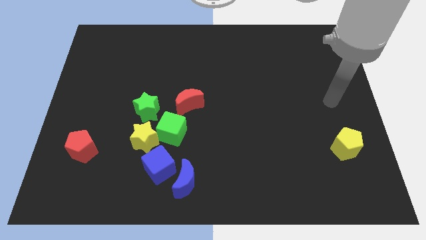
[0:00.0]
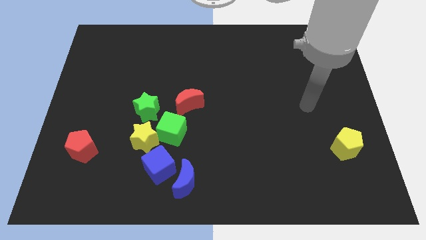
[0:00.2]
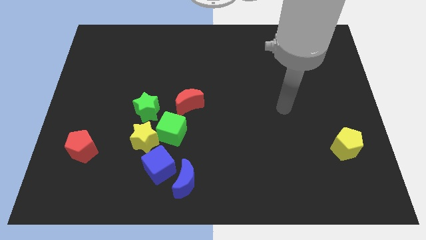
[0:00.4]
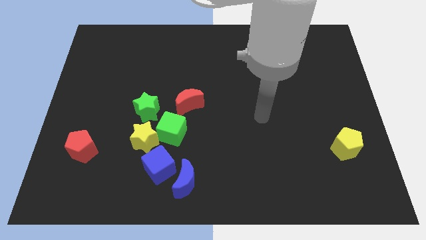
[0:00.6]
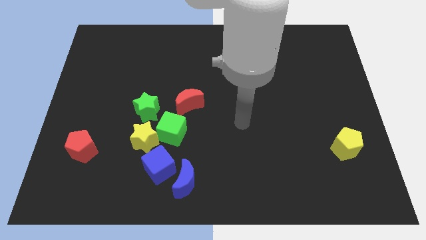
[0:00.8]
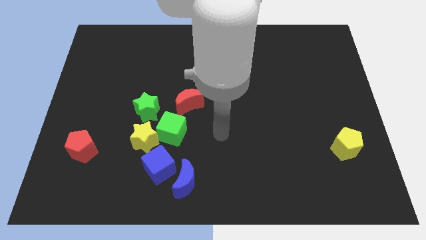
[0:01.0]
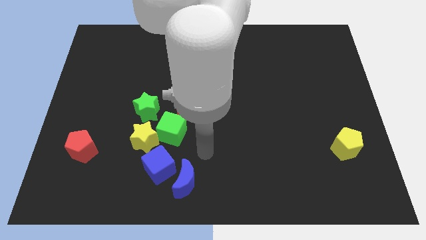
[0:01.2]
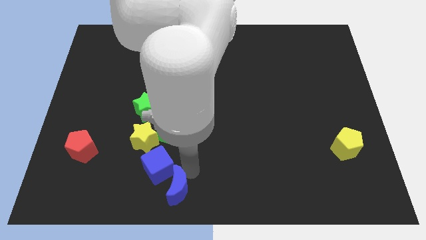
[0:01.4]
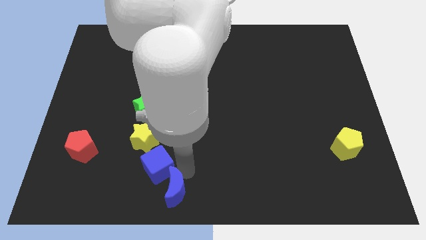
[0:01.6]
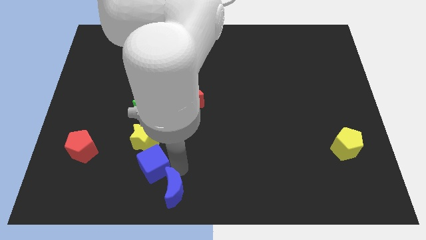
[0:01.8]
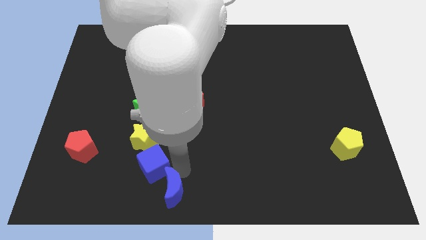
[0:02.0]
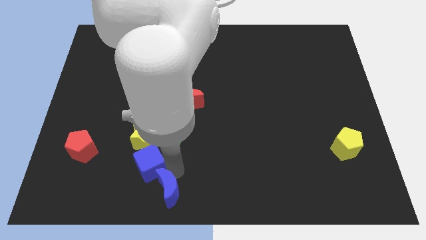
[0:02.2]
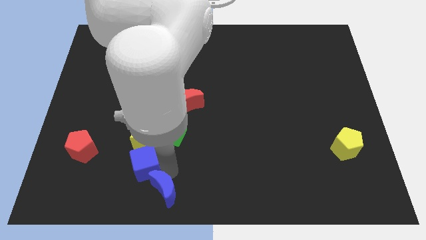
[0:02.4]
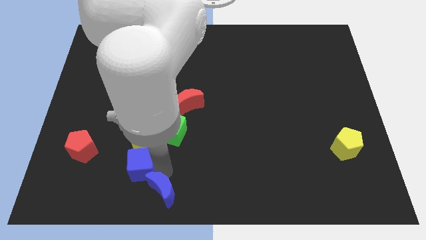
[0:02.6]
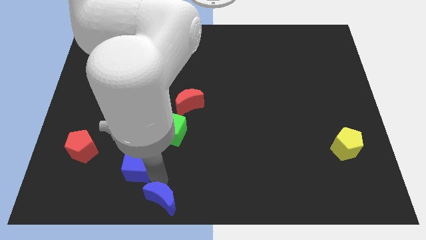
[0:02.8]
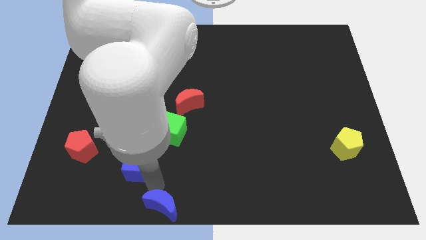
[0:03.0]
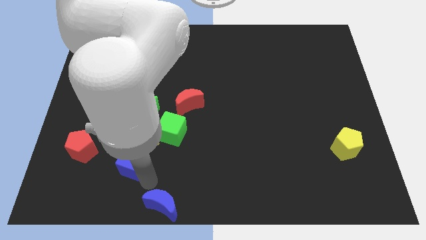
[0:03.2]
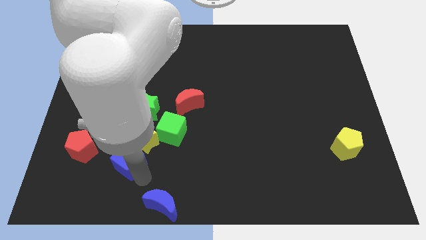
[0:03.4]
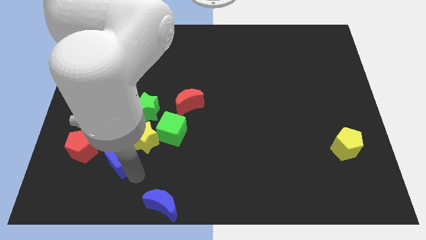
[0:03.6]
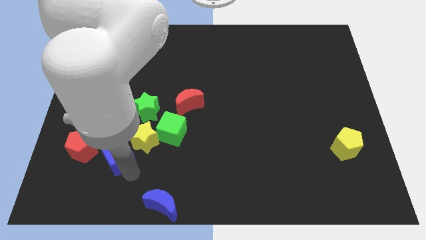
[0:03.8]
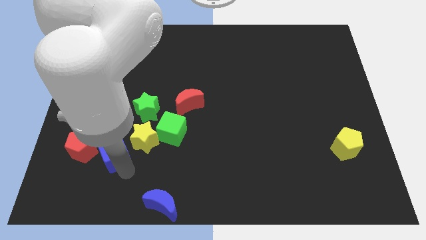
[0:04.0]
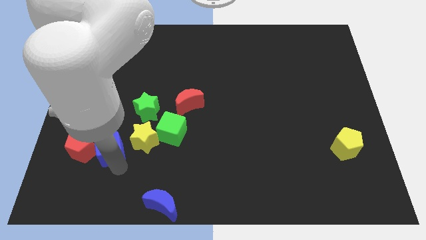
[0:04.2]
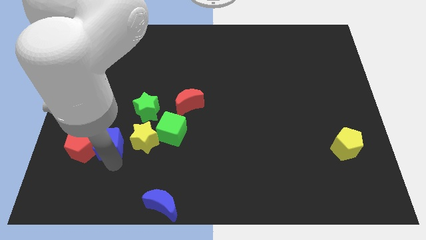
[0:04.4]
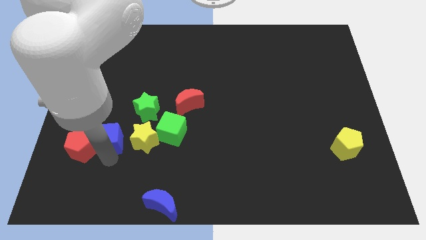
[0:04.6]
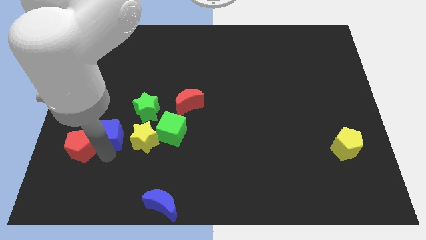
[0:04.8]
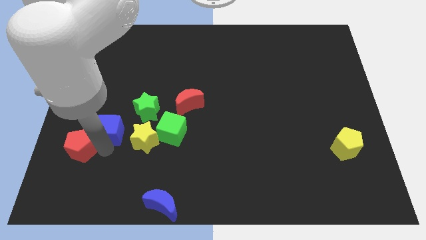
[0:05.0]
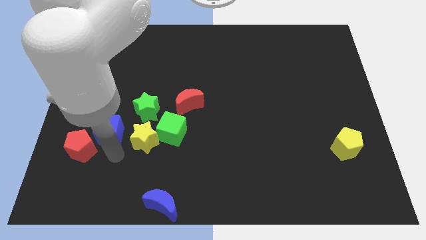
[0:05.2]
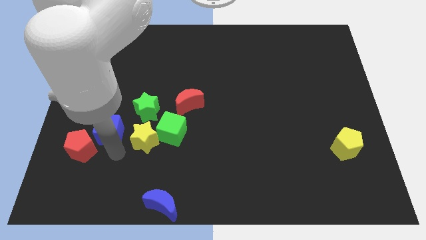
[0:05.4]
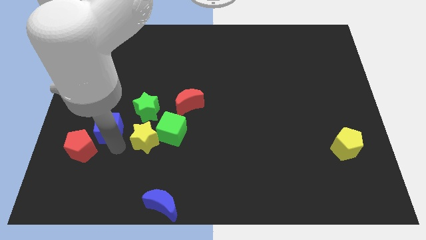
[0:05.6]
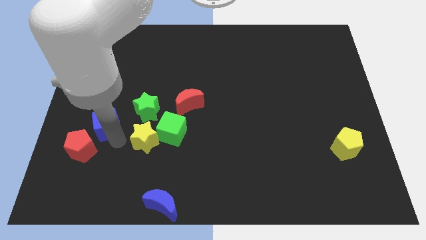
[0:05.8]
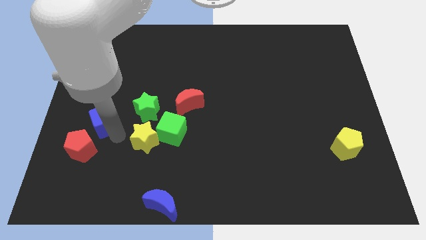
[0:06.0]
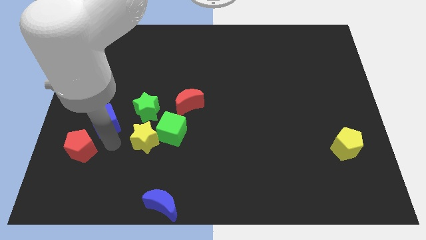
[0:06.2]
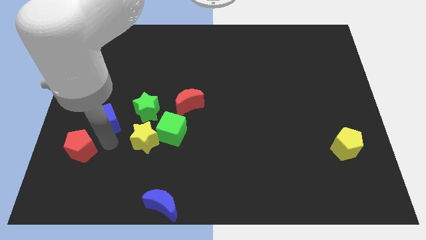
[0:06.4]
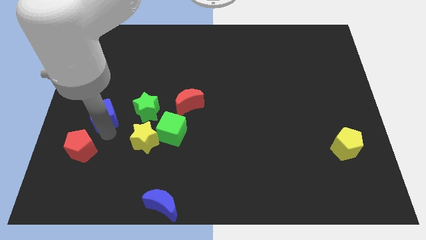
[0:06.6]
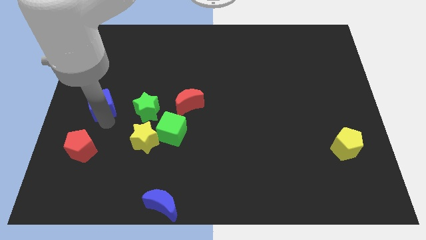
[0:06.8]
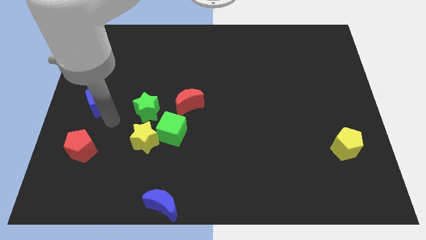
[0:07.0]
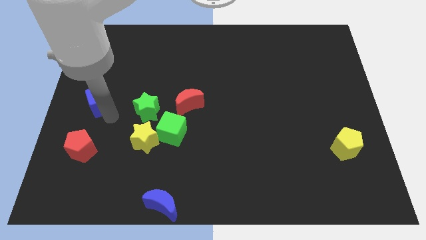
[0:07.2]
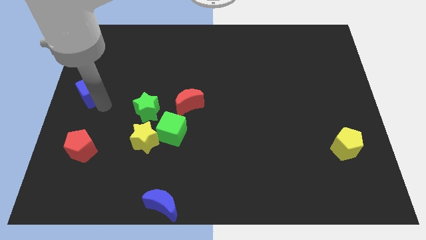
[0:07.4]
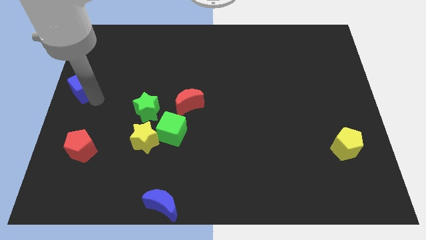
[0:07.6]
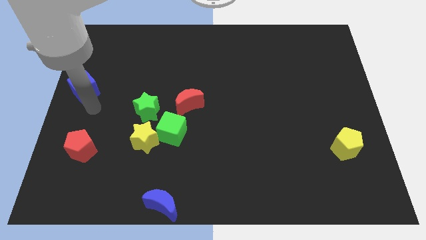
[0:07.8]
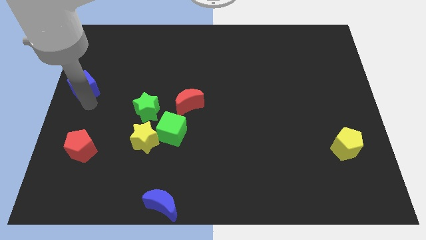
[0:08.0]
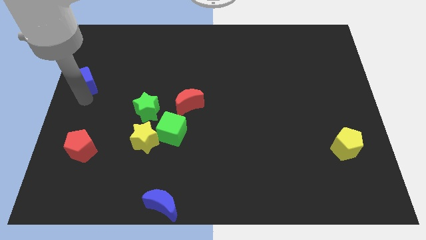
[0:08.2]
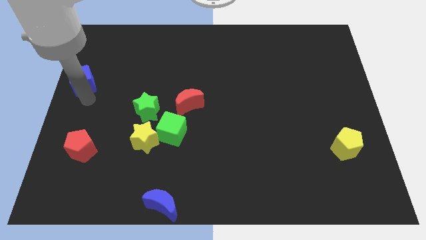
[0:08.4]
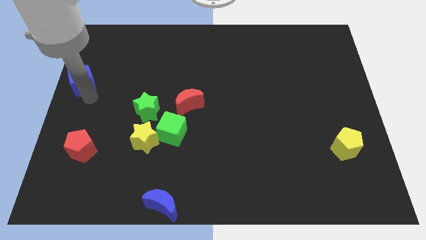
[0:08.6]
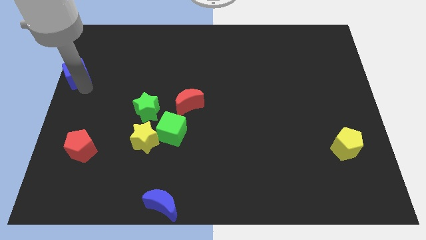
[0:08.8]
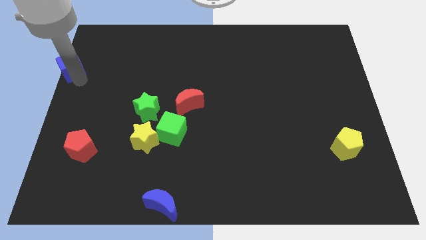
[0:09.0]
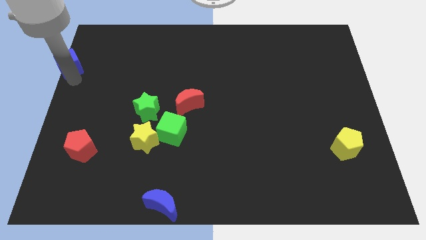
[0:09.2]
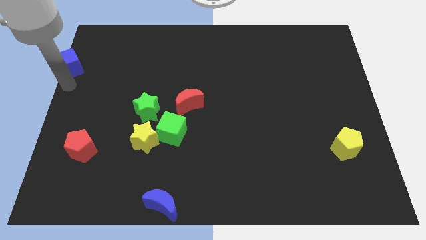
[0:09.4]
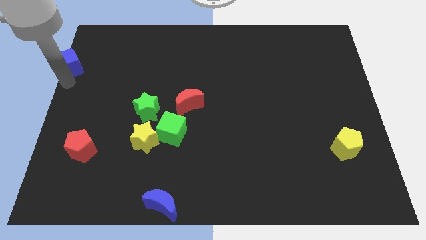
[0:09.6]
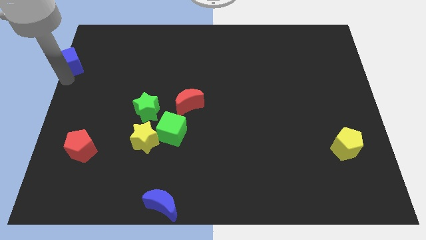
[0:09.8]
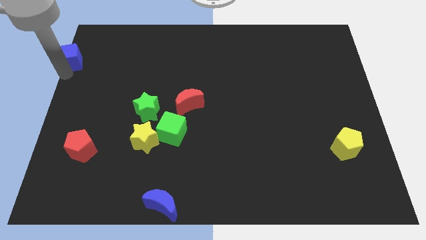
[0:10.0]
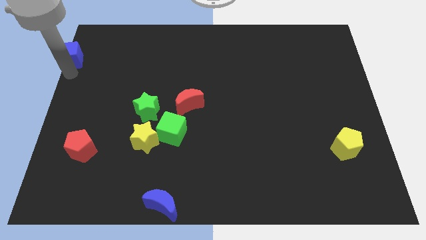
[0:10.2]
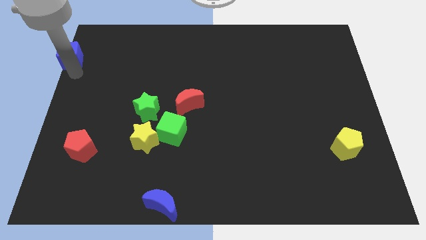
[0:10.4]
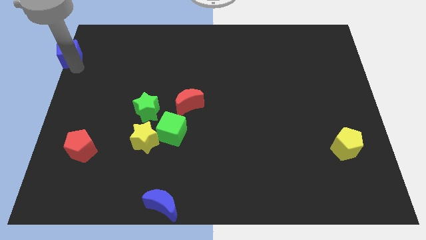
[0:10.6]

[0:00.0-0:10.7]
push the blue cube to the top left corner

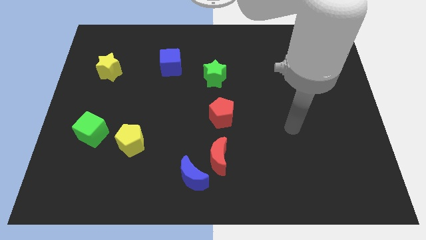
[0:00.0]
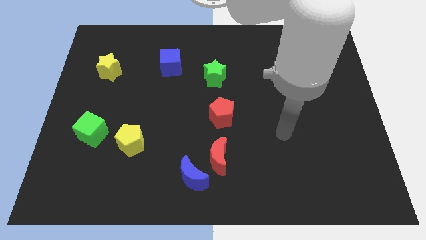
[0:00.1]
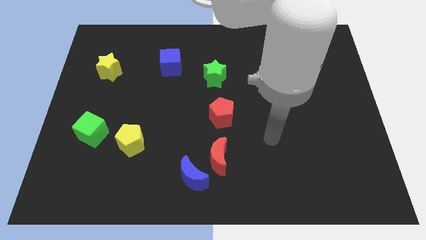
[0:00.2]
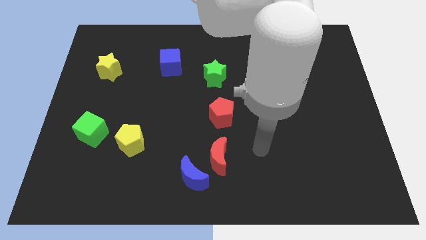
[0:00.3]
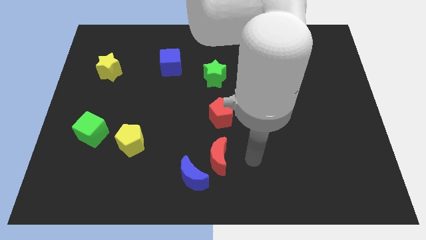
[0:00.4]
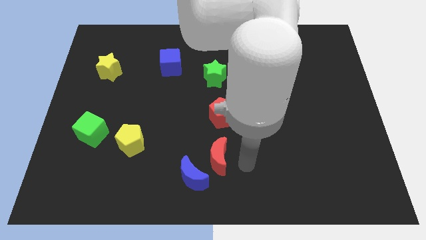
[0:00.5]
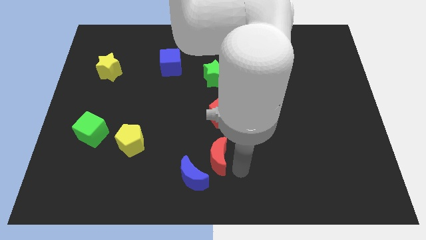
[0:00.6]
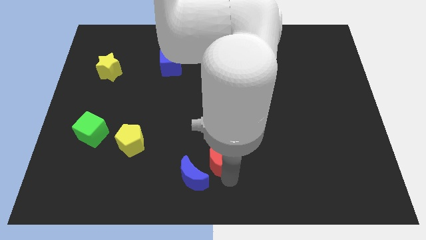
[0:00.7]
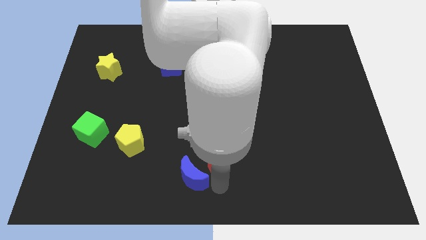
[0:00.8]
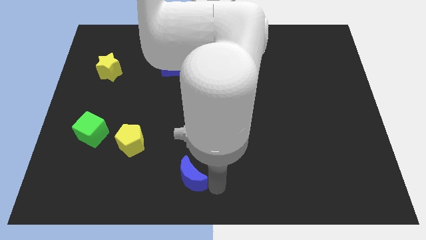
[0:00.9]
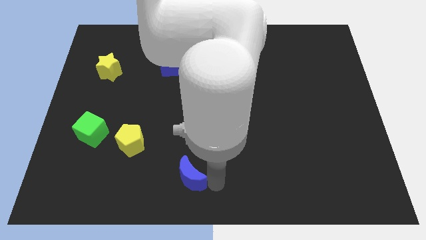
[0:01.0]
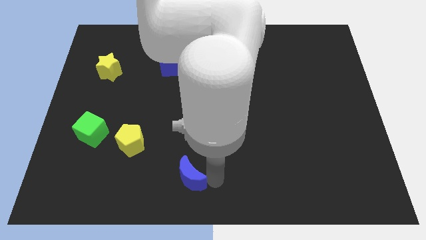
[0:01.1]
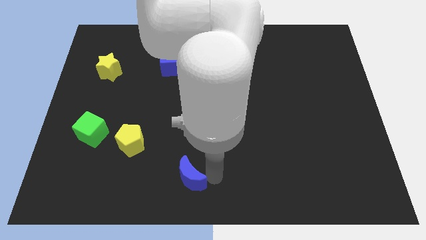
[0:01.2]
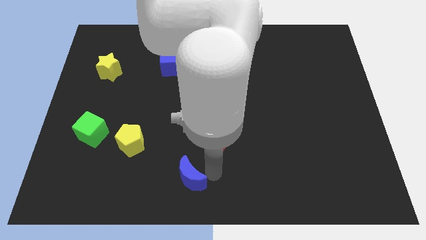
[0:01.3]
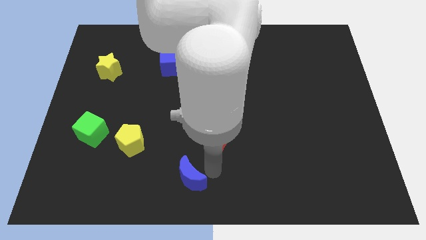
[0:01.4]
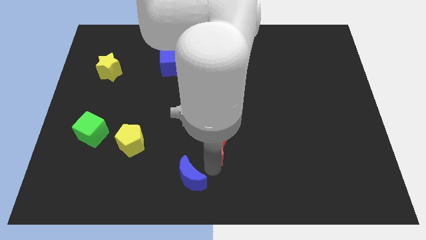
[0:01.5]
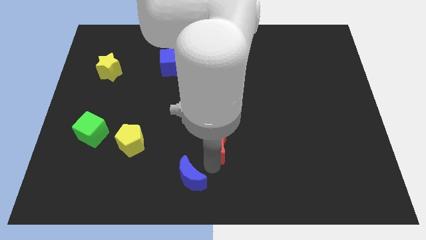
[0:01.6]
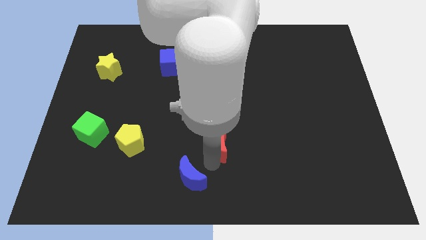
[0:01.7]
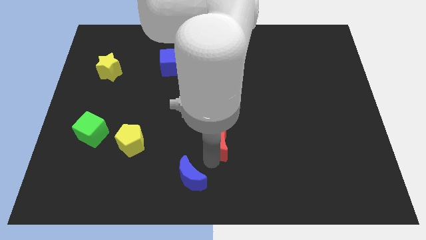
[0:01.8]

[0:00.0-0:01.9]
put the red moon to the center of the board
